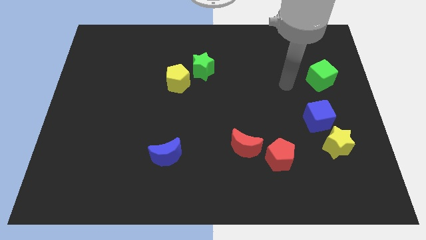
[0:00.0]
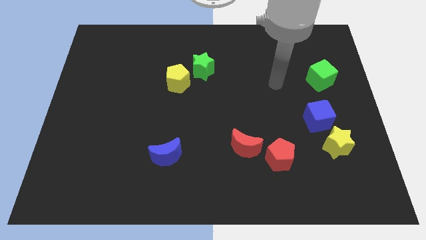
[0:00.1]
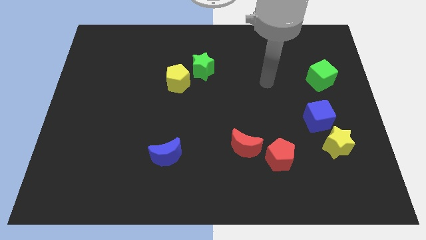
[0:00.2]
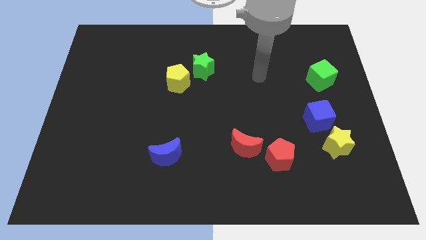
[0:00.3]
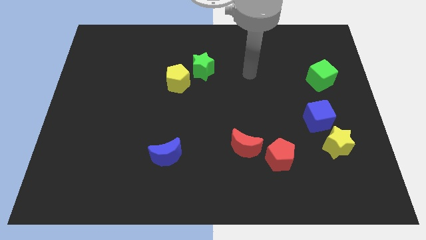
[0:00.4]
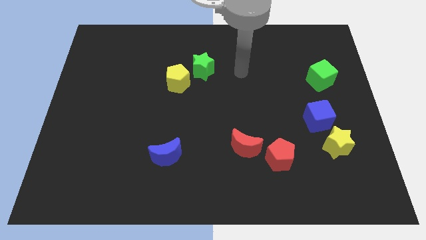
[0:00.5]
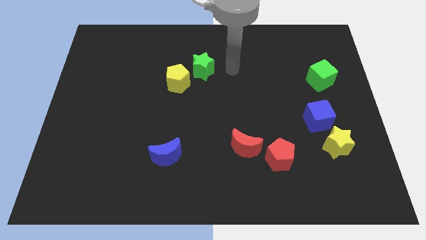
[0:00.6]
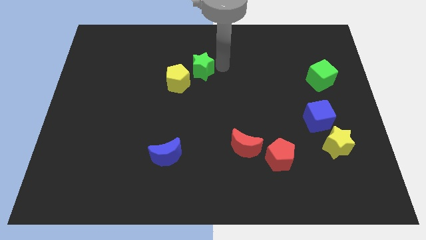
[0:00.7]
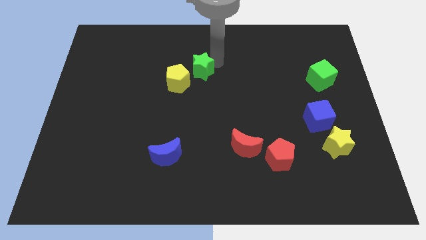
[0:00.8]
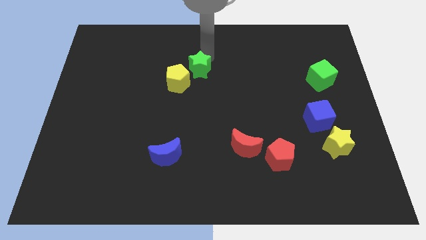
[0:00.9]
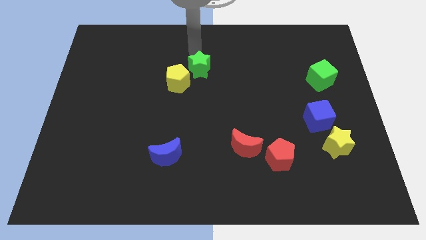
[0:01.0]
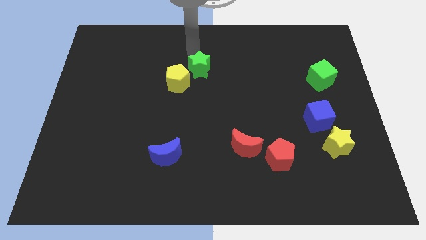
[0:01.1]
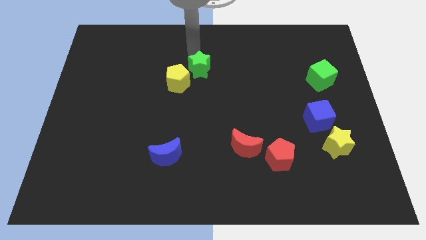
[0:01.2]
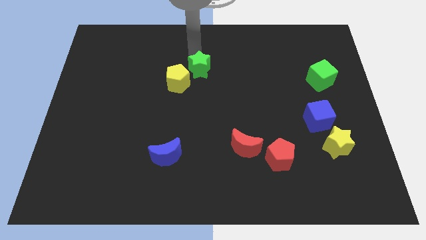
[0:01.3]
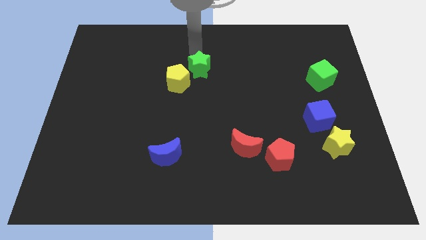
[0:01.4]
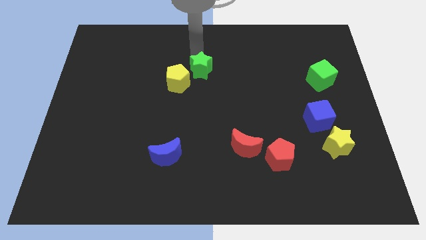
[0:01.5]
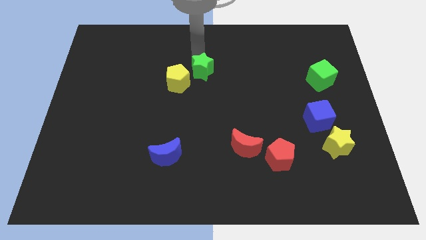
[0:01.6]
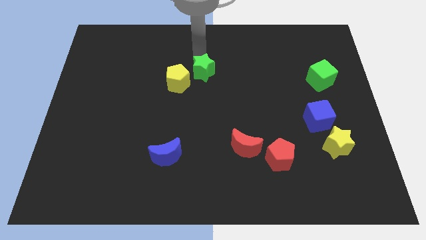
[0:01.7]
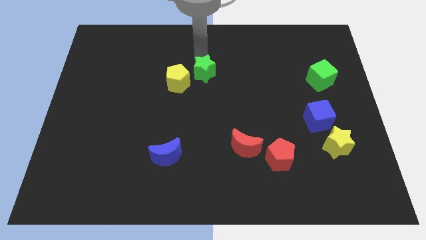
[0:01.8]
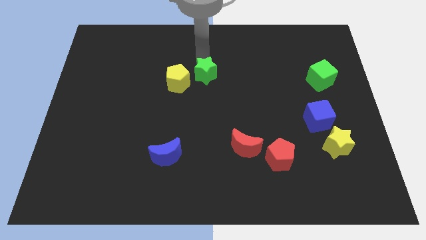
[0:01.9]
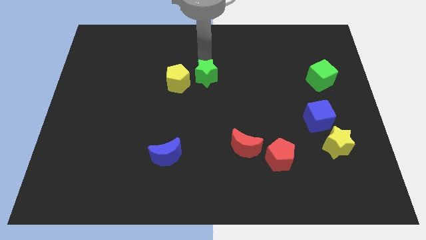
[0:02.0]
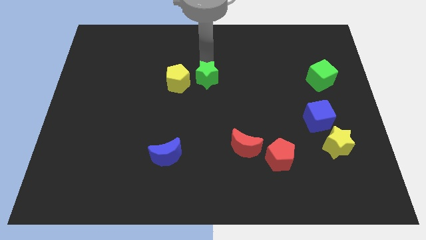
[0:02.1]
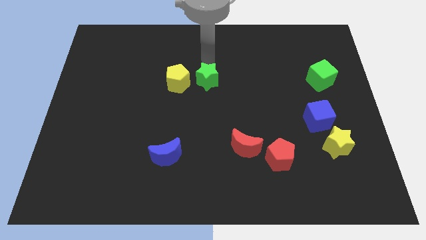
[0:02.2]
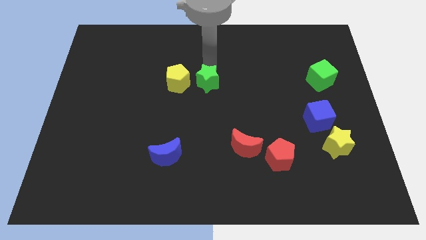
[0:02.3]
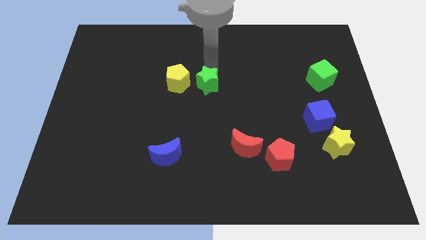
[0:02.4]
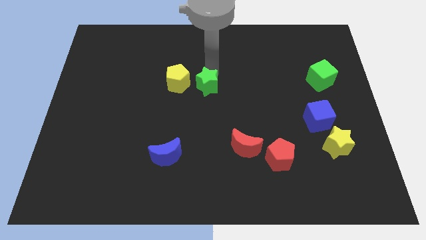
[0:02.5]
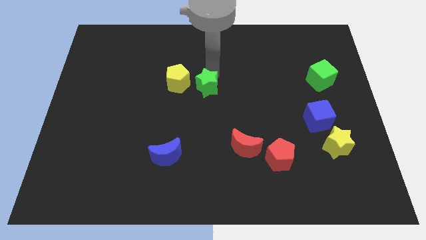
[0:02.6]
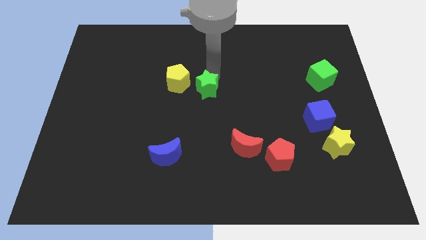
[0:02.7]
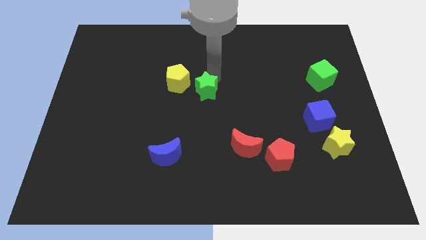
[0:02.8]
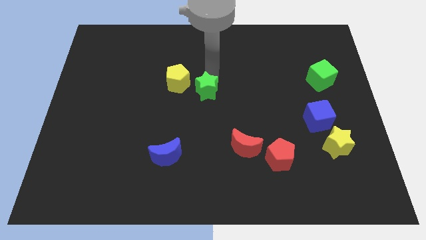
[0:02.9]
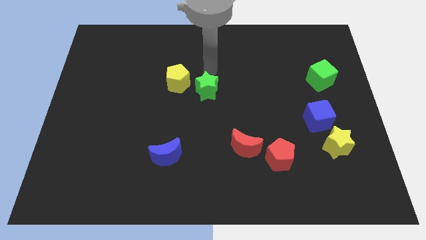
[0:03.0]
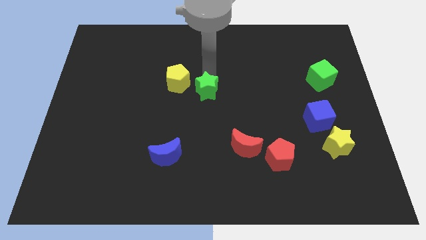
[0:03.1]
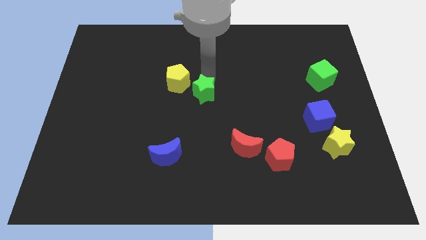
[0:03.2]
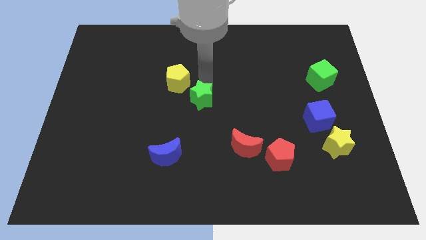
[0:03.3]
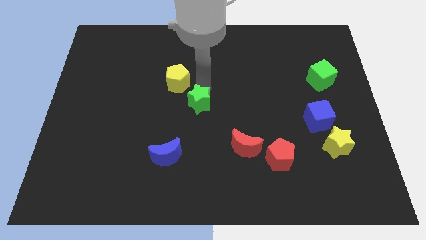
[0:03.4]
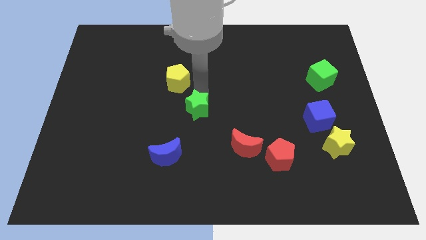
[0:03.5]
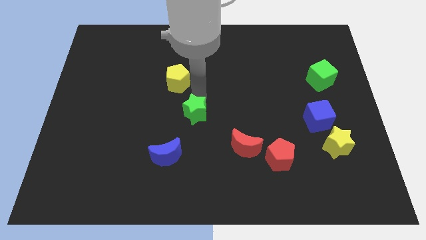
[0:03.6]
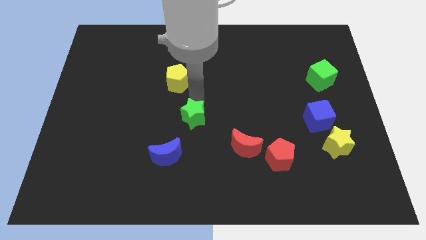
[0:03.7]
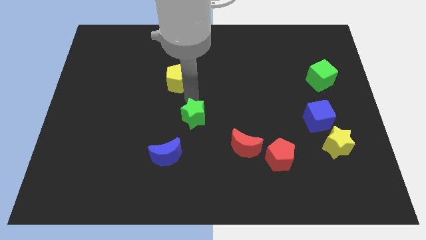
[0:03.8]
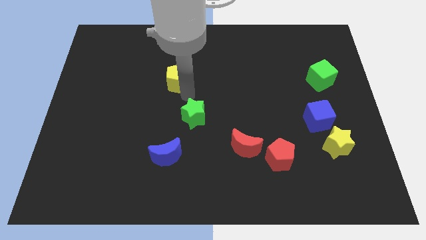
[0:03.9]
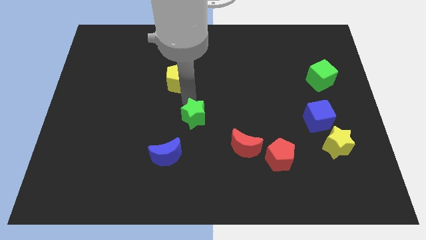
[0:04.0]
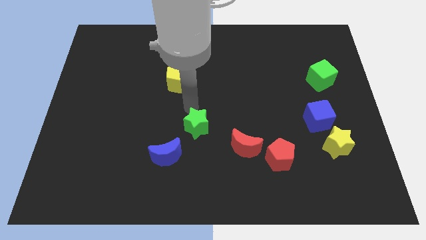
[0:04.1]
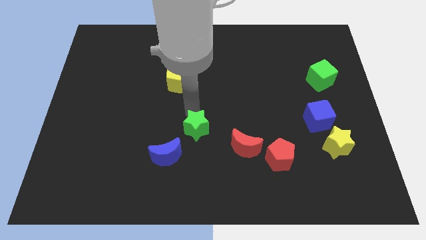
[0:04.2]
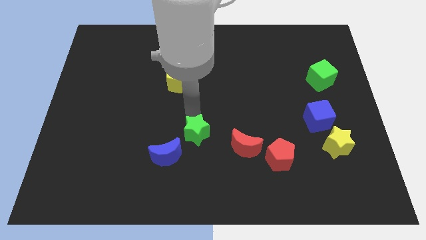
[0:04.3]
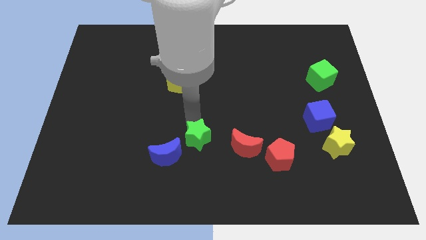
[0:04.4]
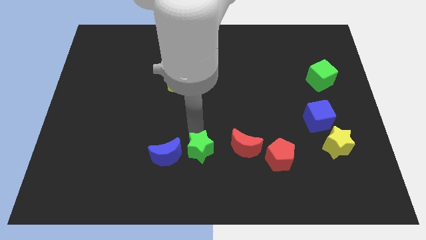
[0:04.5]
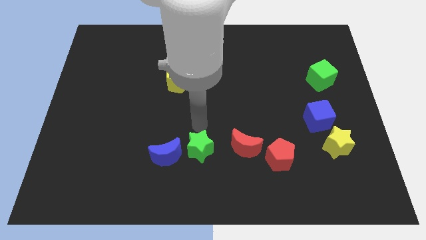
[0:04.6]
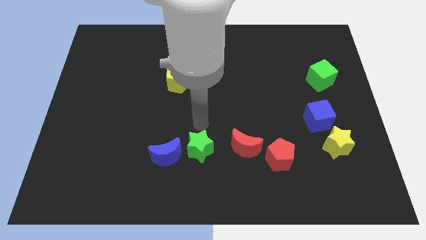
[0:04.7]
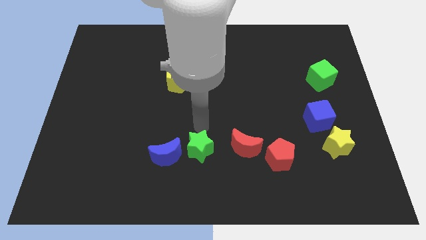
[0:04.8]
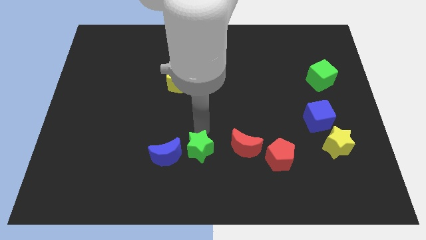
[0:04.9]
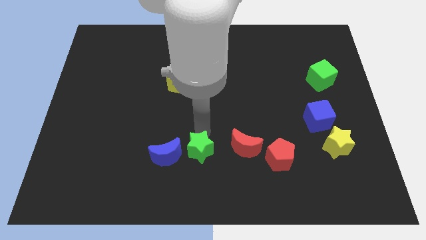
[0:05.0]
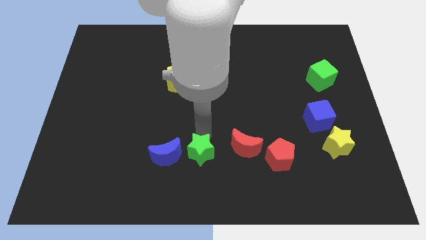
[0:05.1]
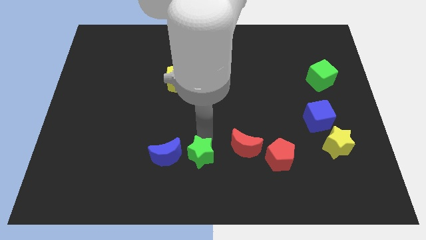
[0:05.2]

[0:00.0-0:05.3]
put the green star to the bottom side

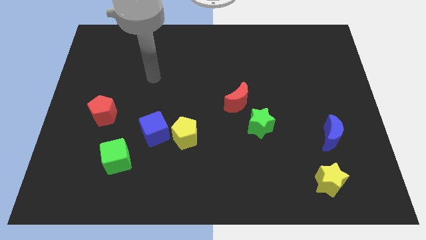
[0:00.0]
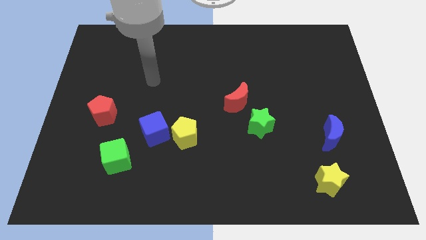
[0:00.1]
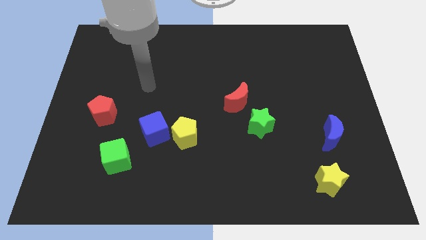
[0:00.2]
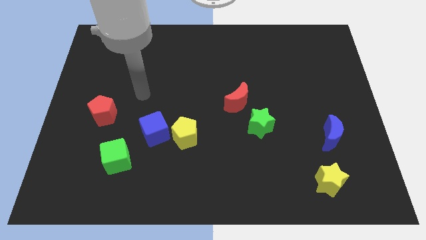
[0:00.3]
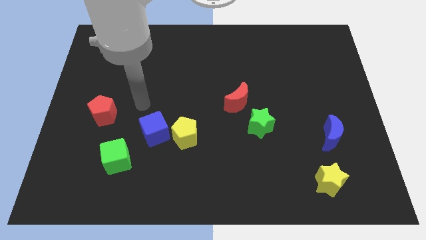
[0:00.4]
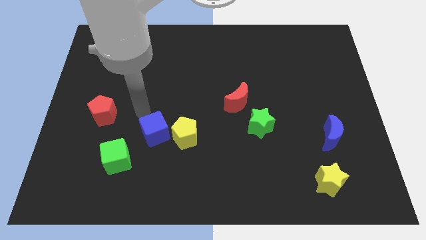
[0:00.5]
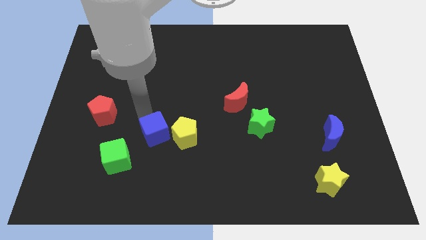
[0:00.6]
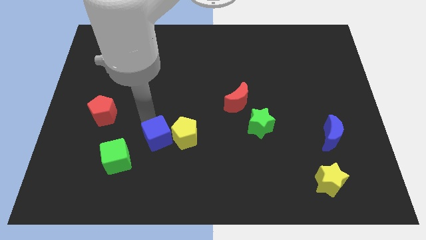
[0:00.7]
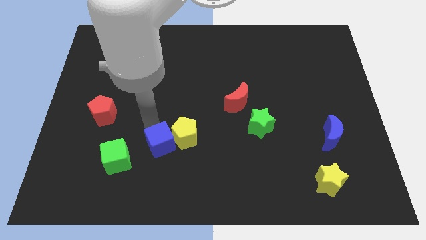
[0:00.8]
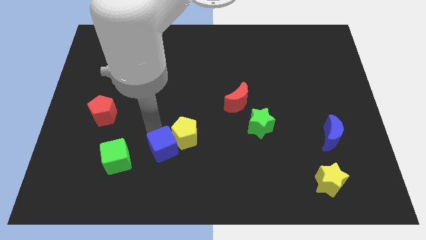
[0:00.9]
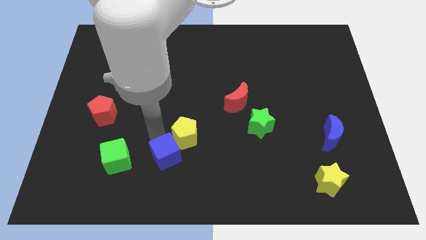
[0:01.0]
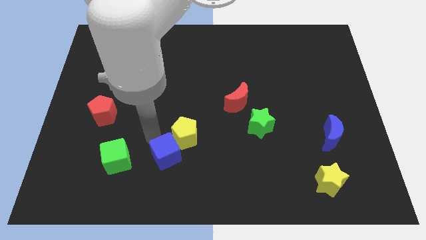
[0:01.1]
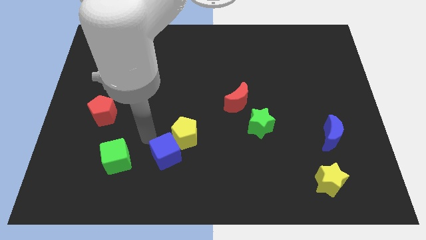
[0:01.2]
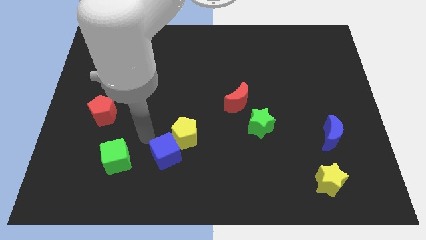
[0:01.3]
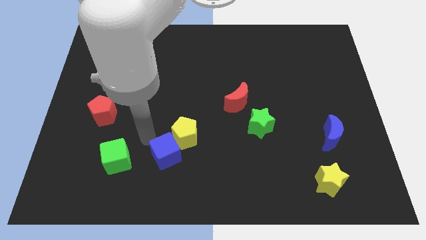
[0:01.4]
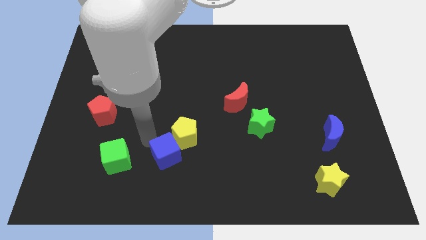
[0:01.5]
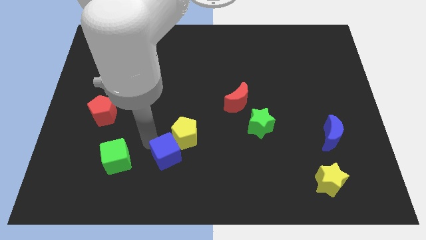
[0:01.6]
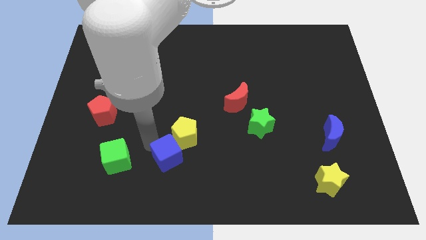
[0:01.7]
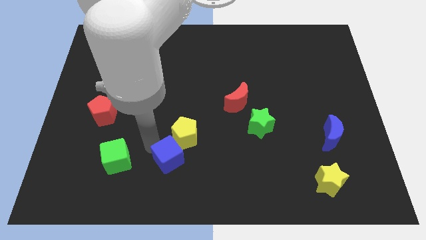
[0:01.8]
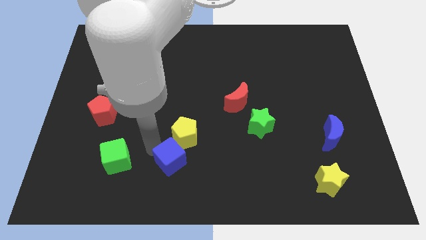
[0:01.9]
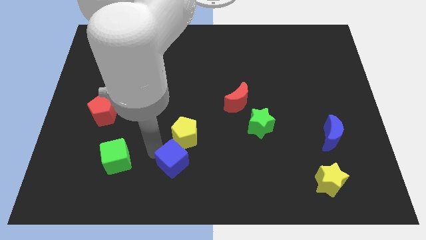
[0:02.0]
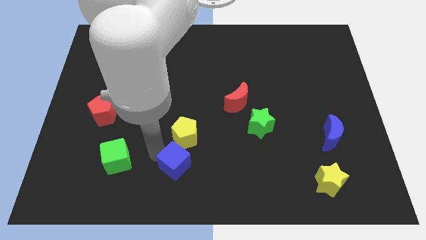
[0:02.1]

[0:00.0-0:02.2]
put the blue cube to the bottom side
